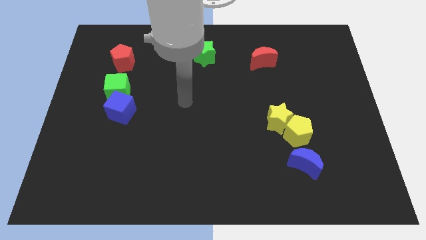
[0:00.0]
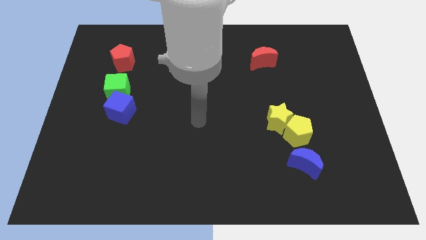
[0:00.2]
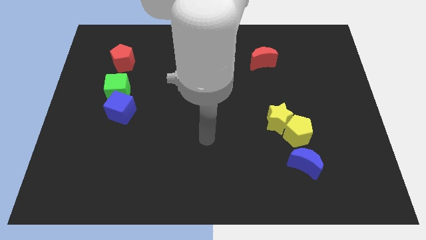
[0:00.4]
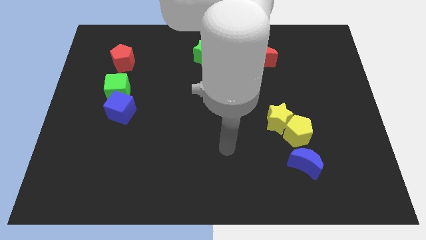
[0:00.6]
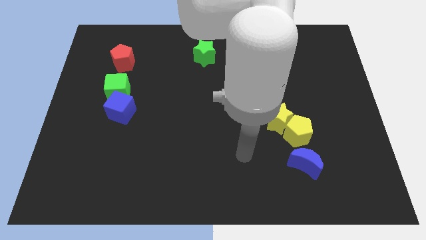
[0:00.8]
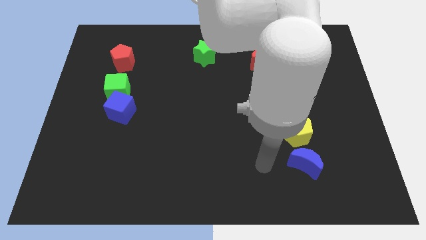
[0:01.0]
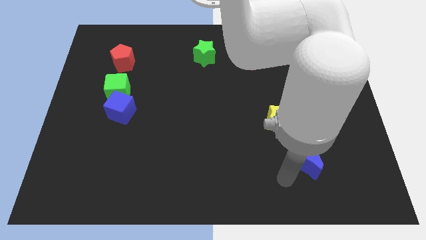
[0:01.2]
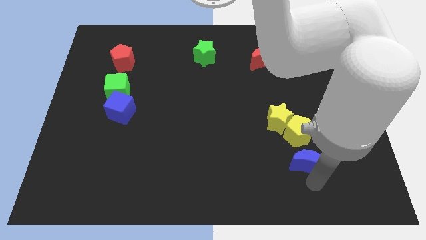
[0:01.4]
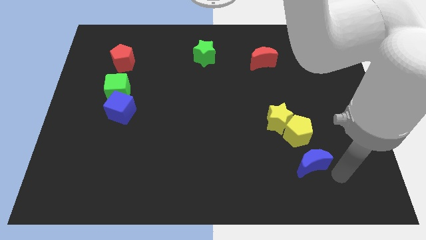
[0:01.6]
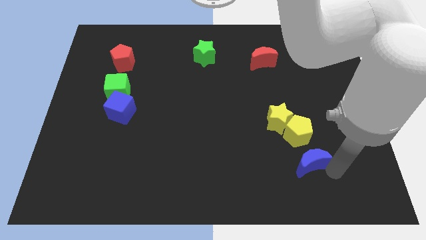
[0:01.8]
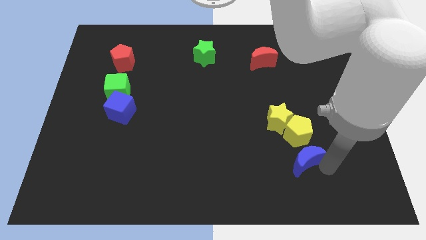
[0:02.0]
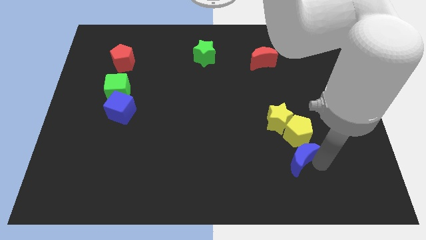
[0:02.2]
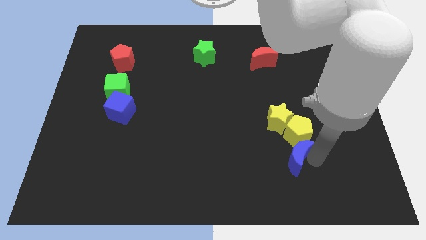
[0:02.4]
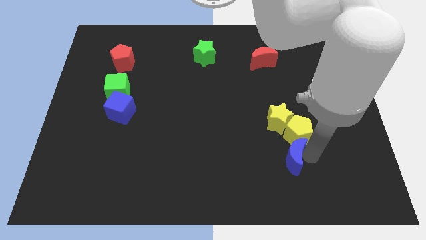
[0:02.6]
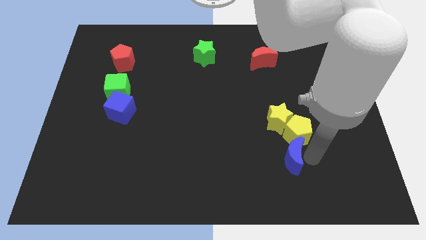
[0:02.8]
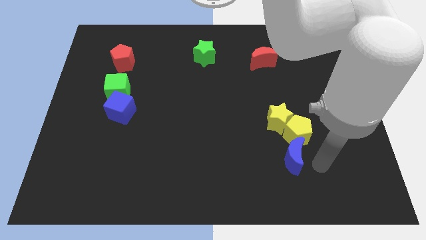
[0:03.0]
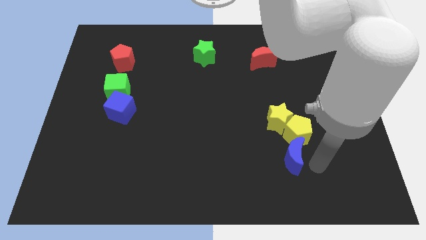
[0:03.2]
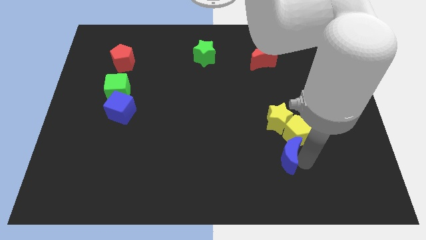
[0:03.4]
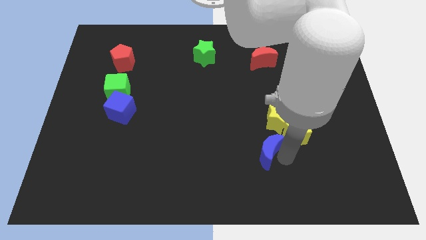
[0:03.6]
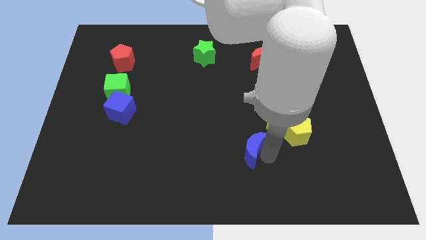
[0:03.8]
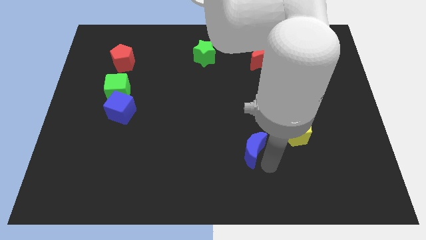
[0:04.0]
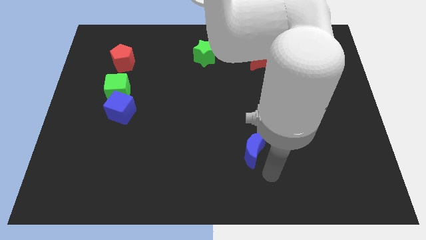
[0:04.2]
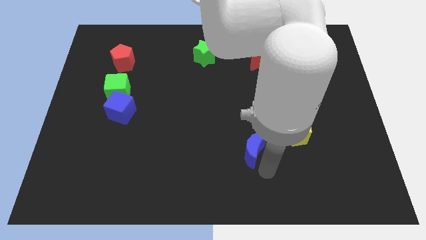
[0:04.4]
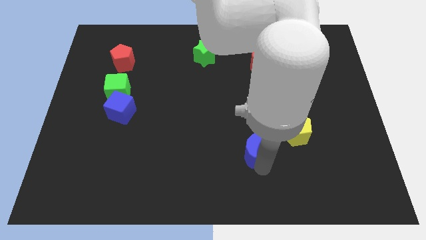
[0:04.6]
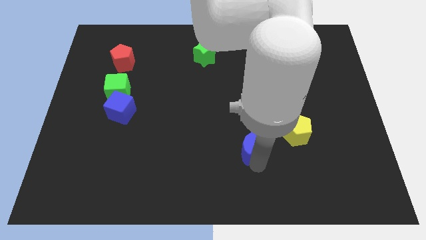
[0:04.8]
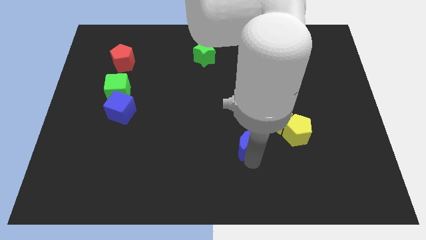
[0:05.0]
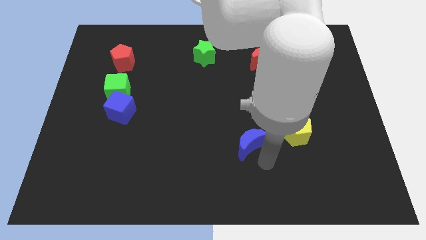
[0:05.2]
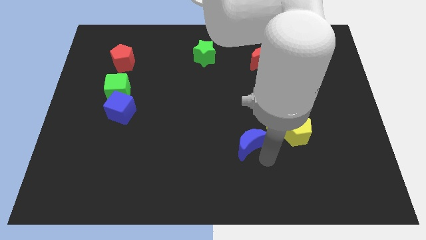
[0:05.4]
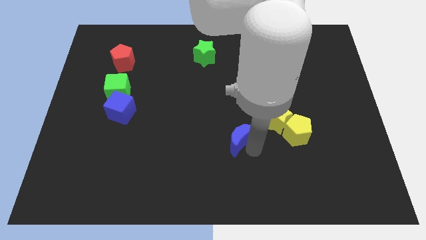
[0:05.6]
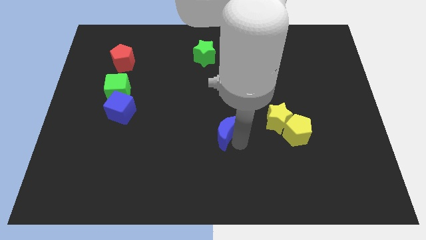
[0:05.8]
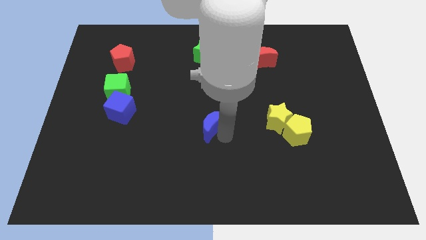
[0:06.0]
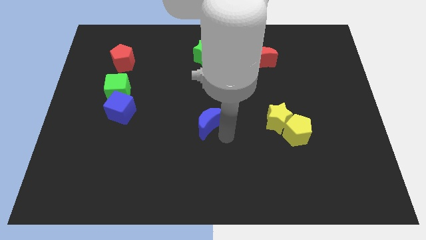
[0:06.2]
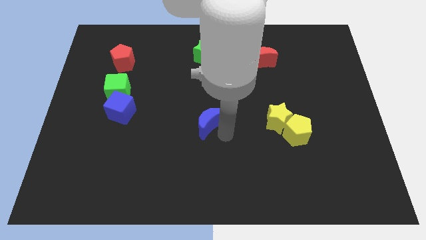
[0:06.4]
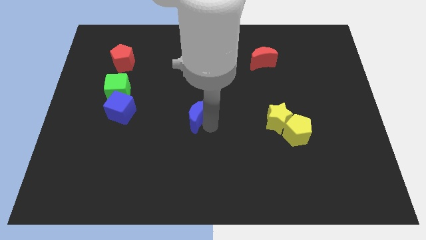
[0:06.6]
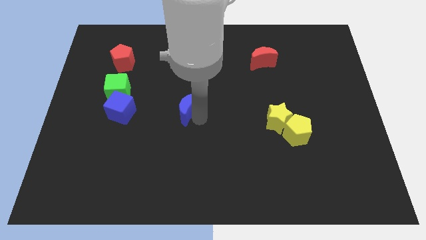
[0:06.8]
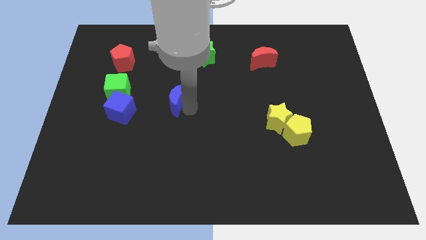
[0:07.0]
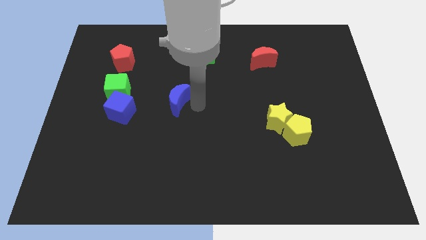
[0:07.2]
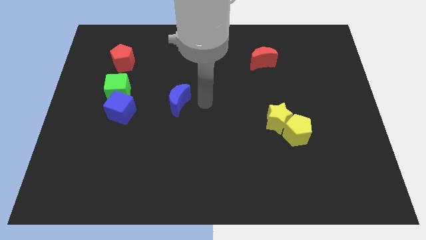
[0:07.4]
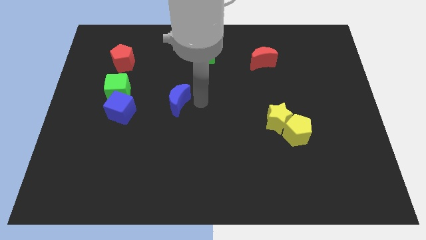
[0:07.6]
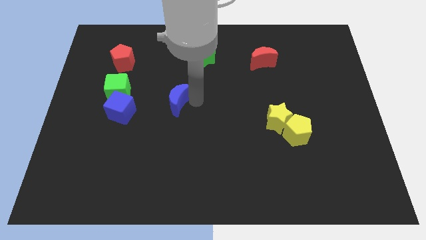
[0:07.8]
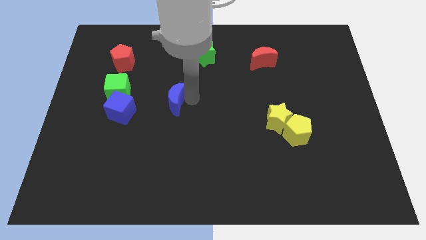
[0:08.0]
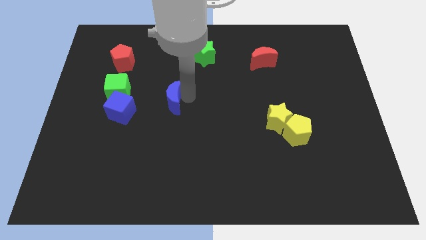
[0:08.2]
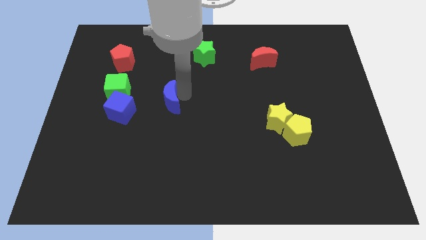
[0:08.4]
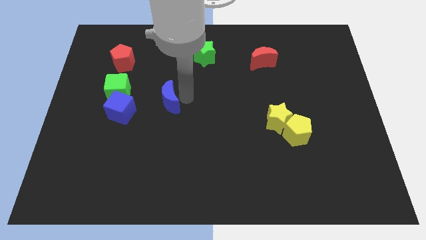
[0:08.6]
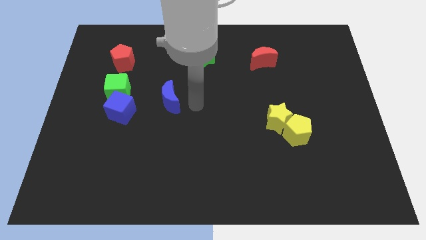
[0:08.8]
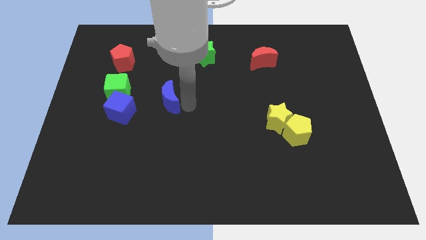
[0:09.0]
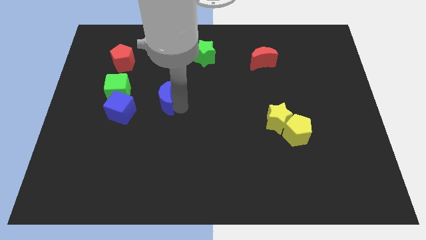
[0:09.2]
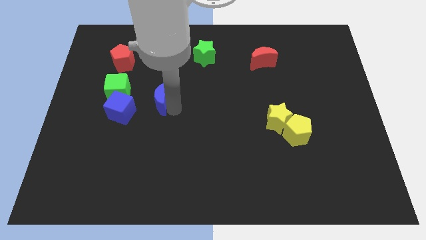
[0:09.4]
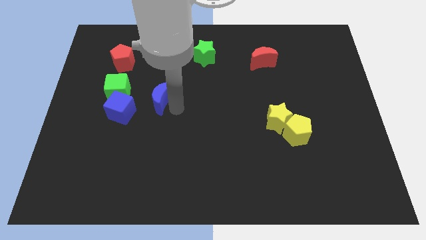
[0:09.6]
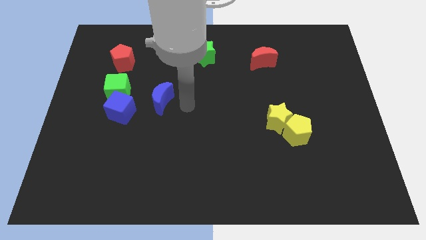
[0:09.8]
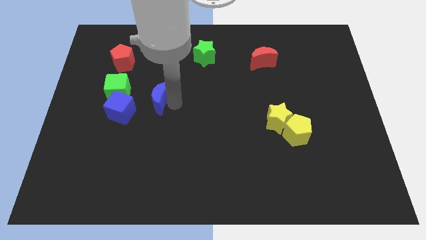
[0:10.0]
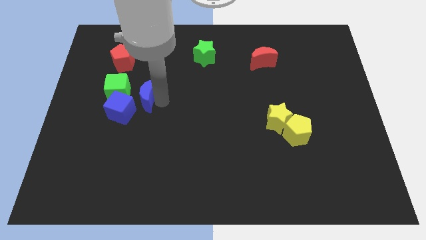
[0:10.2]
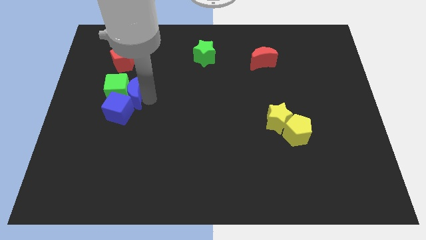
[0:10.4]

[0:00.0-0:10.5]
move the blue moon close to the green cube

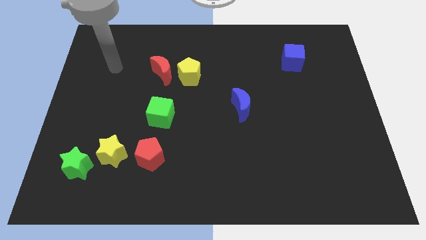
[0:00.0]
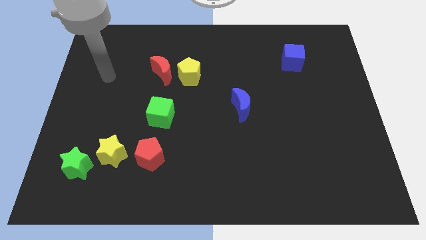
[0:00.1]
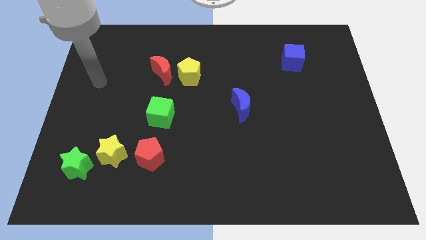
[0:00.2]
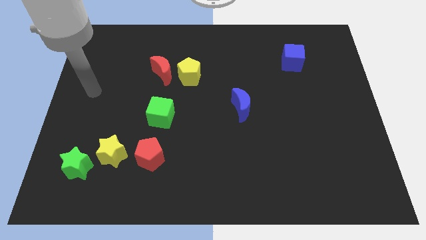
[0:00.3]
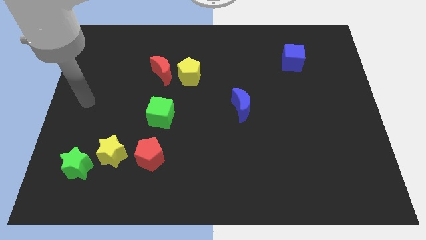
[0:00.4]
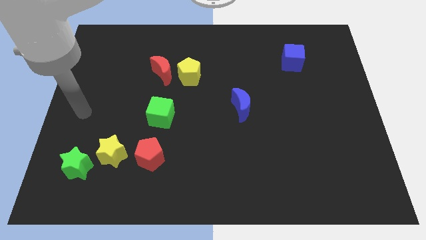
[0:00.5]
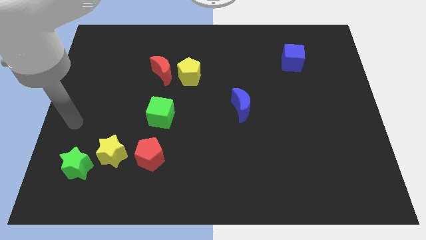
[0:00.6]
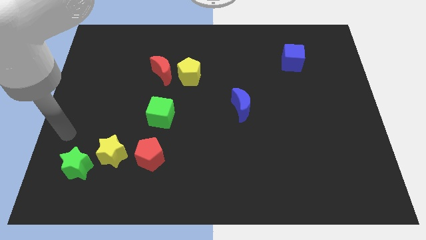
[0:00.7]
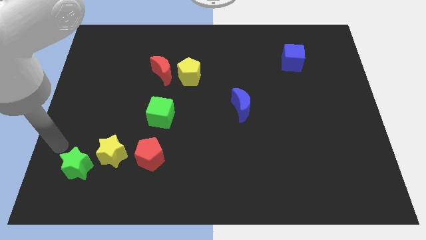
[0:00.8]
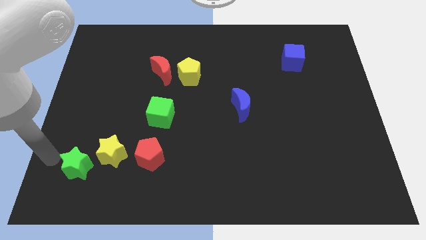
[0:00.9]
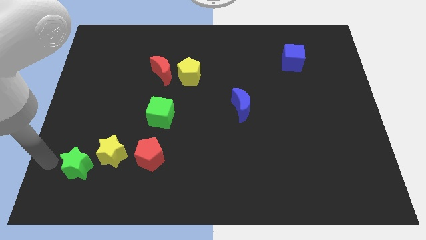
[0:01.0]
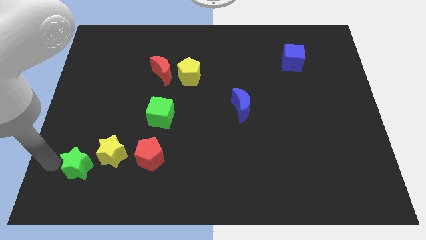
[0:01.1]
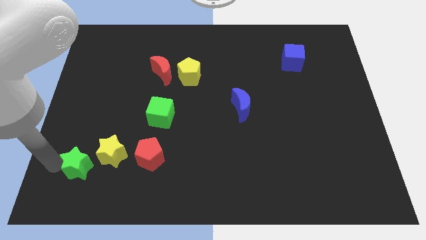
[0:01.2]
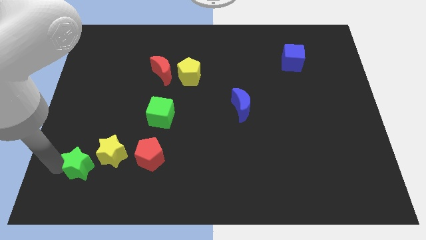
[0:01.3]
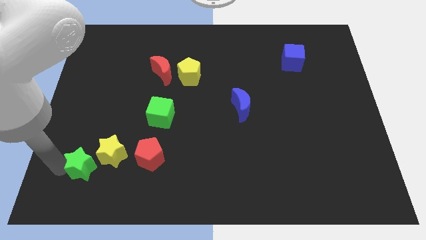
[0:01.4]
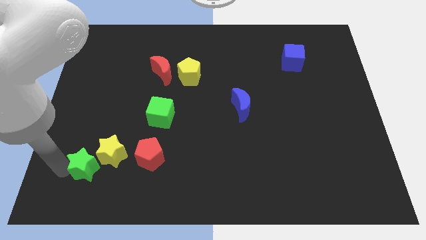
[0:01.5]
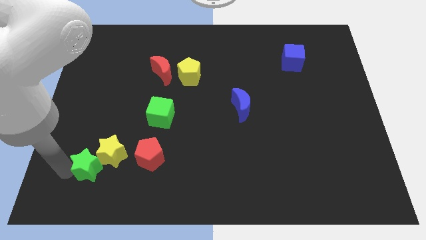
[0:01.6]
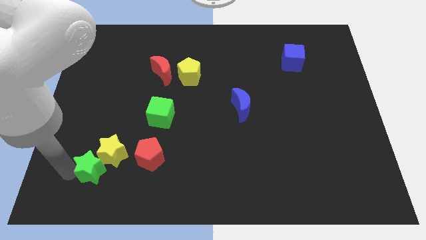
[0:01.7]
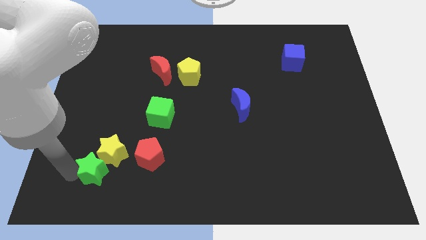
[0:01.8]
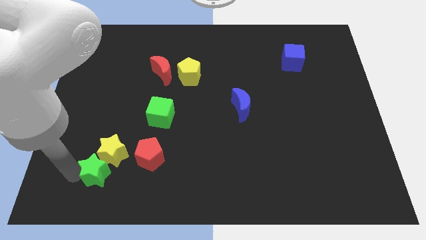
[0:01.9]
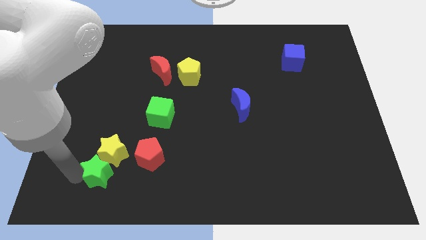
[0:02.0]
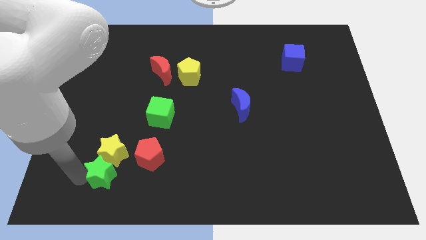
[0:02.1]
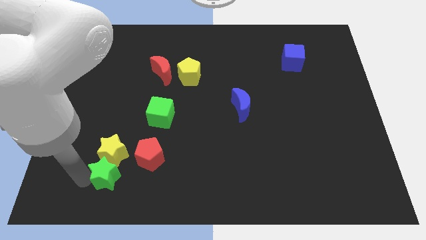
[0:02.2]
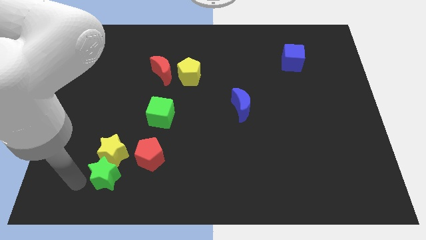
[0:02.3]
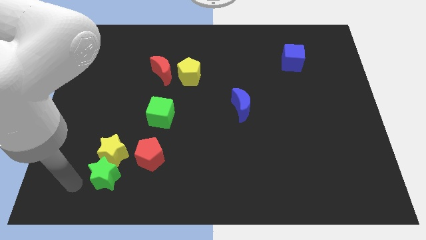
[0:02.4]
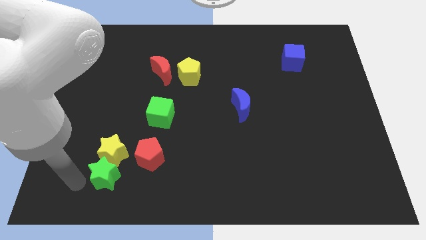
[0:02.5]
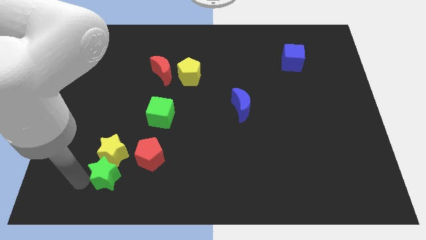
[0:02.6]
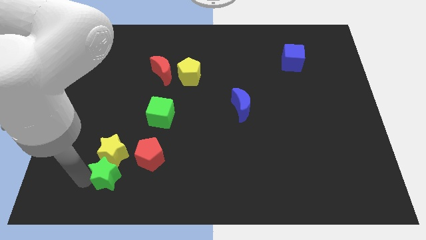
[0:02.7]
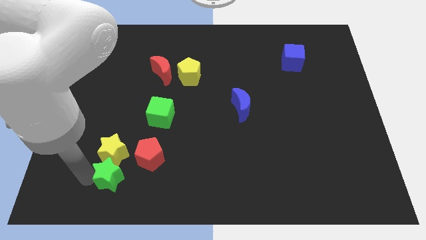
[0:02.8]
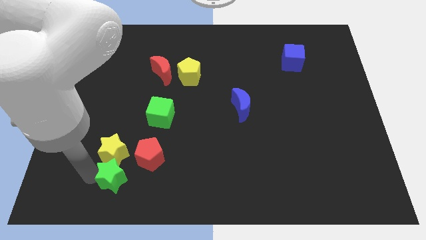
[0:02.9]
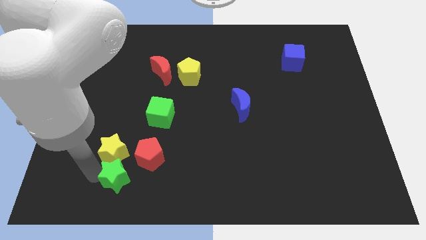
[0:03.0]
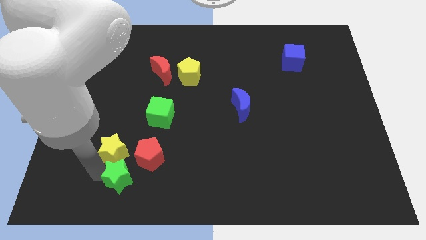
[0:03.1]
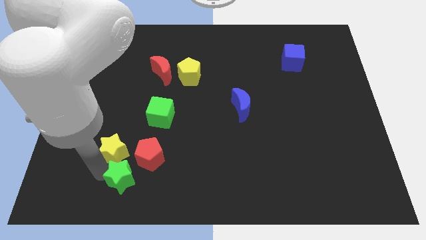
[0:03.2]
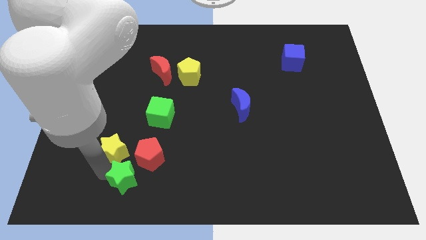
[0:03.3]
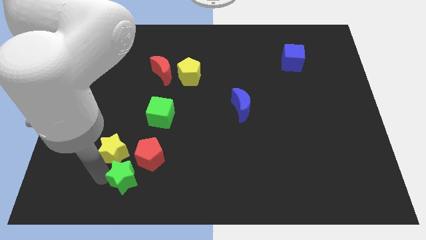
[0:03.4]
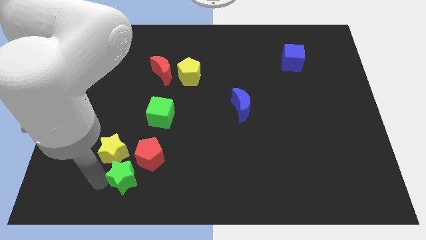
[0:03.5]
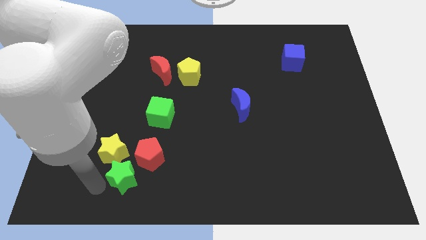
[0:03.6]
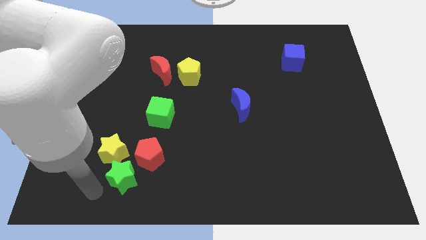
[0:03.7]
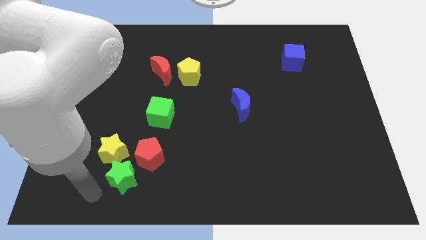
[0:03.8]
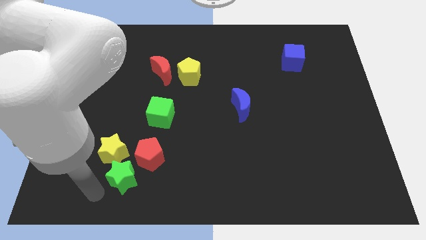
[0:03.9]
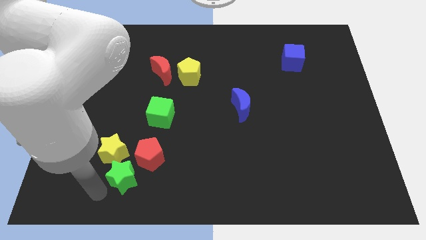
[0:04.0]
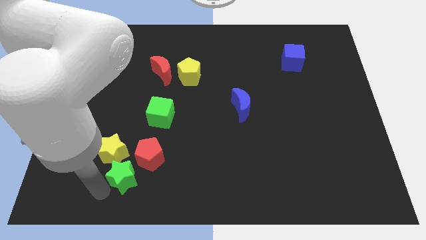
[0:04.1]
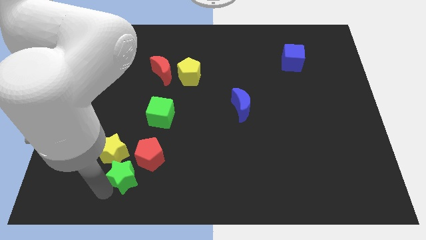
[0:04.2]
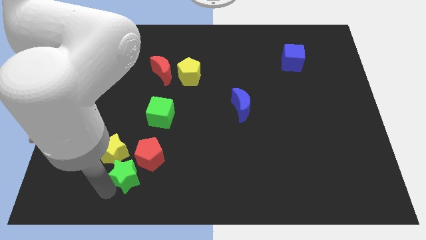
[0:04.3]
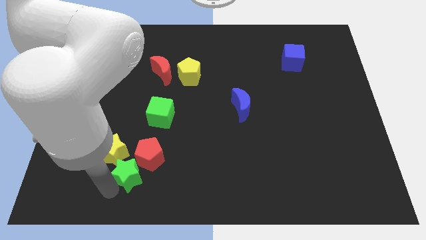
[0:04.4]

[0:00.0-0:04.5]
put the green star next to the red pentagon
